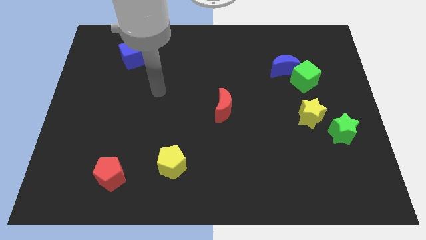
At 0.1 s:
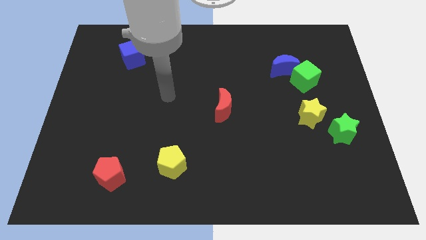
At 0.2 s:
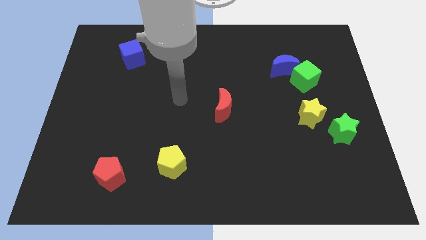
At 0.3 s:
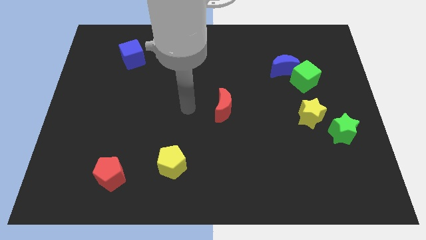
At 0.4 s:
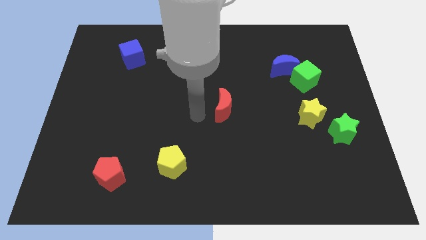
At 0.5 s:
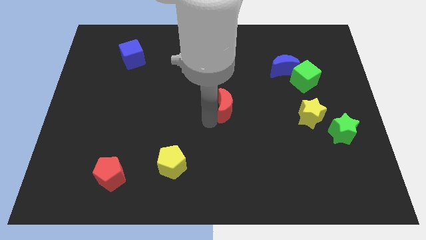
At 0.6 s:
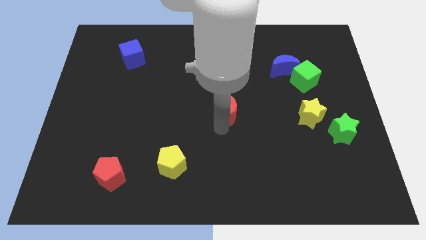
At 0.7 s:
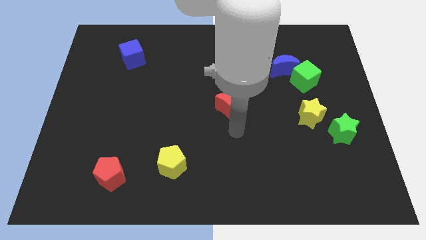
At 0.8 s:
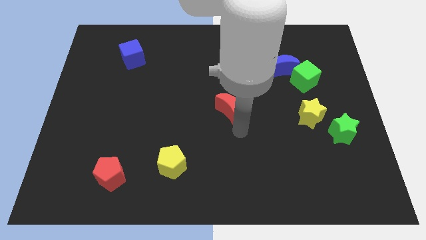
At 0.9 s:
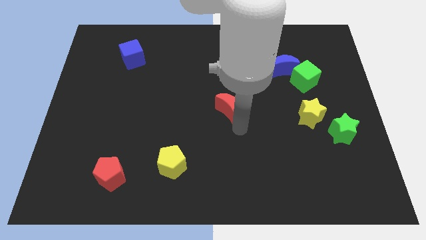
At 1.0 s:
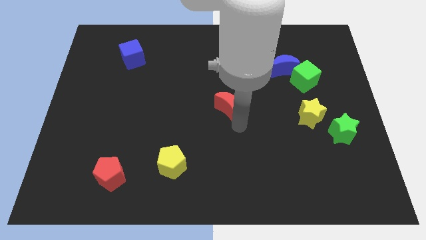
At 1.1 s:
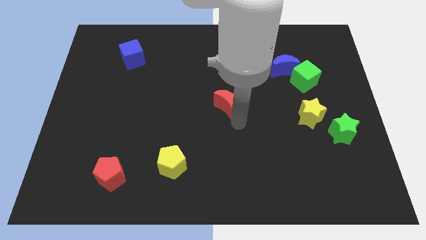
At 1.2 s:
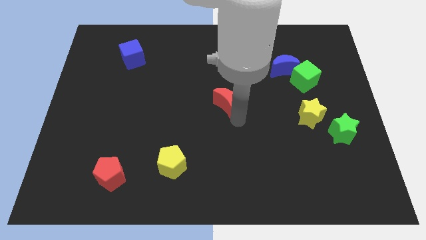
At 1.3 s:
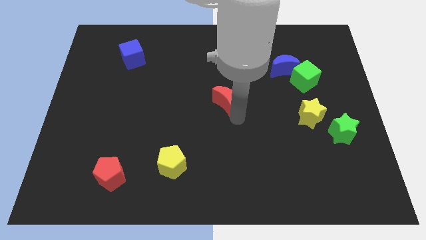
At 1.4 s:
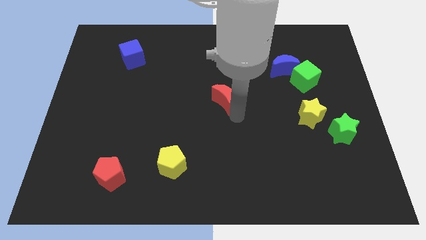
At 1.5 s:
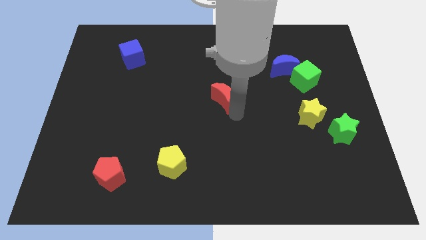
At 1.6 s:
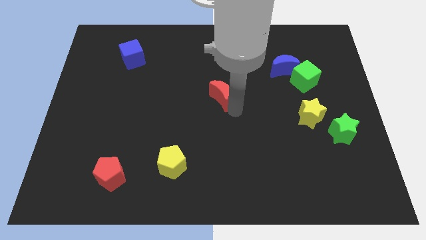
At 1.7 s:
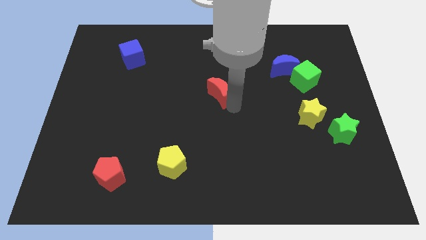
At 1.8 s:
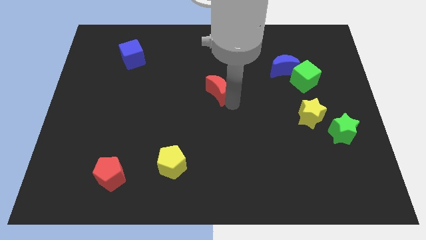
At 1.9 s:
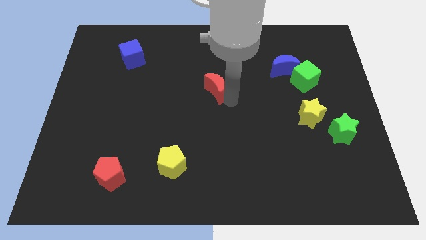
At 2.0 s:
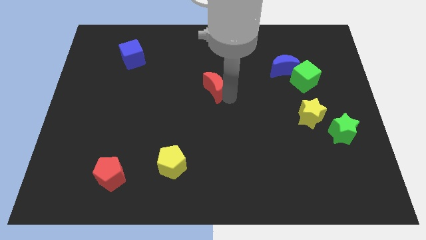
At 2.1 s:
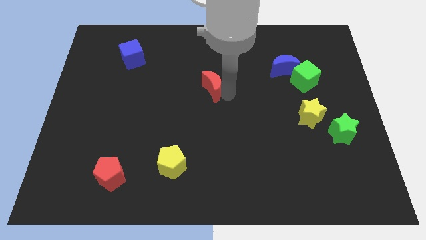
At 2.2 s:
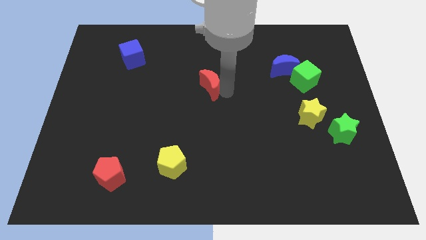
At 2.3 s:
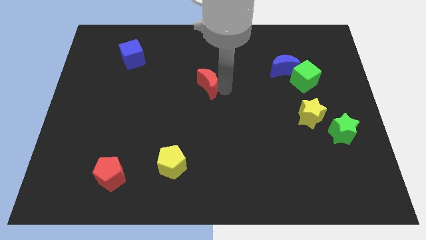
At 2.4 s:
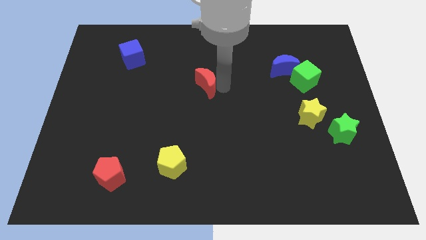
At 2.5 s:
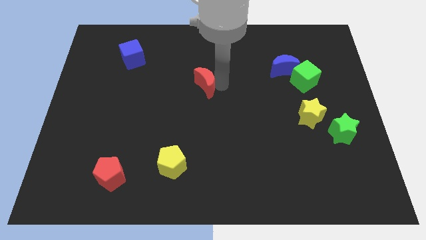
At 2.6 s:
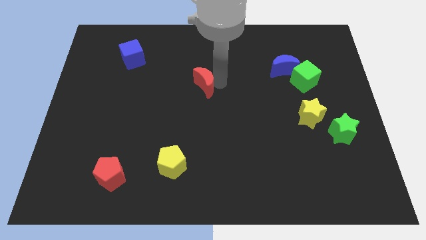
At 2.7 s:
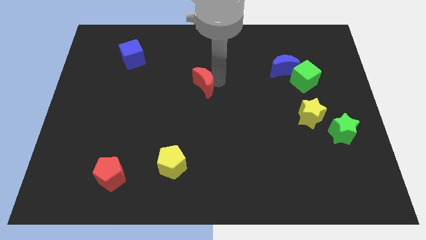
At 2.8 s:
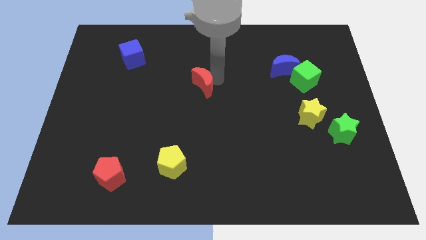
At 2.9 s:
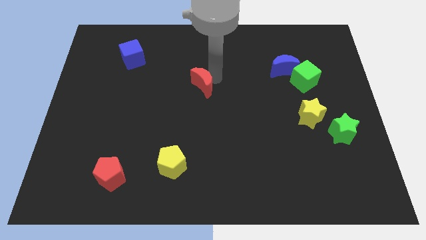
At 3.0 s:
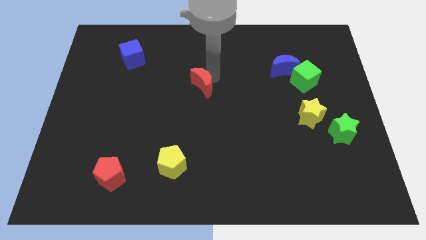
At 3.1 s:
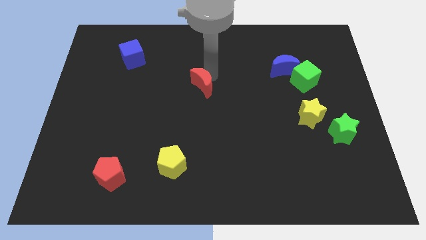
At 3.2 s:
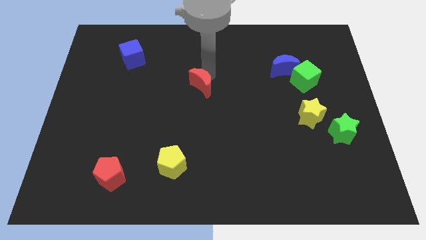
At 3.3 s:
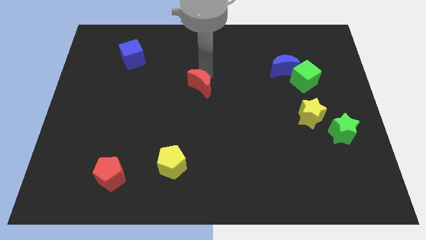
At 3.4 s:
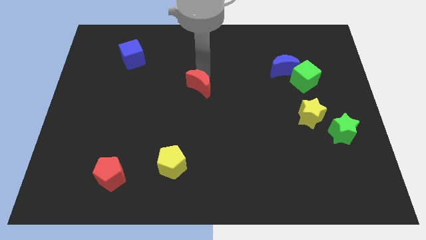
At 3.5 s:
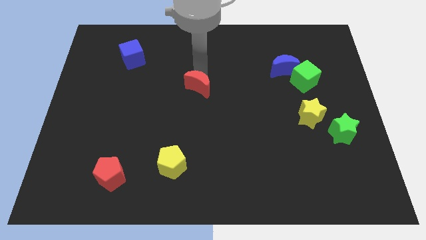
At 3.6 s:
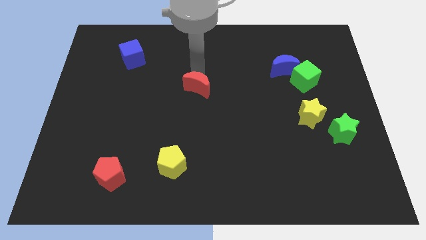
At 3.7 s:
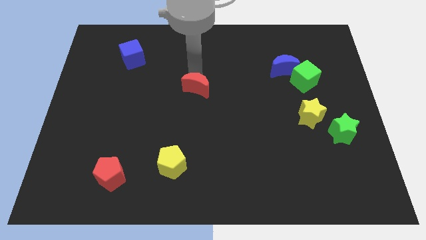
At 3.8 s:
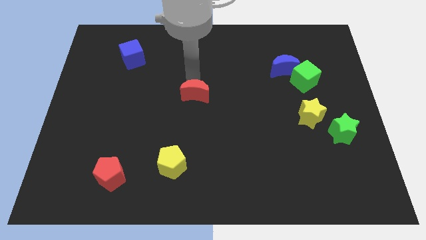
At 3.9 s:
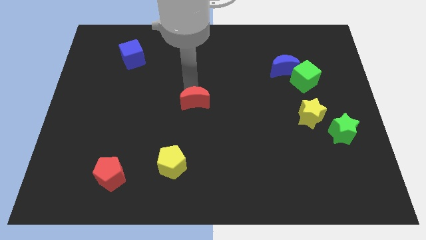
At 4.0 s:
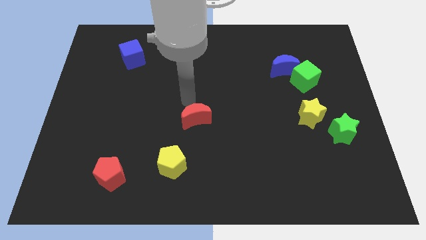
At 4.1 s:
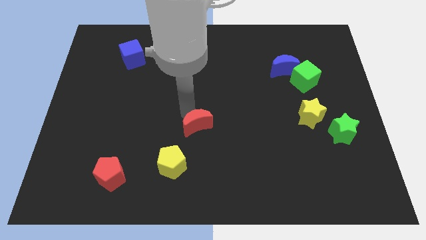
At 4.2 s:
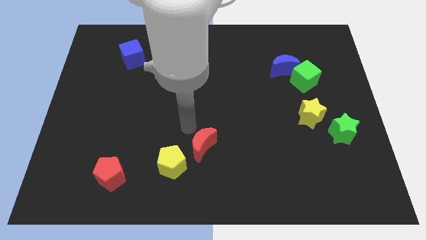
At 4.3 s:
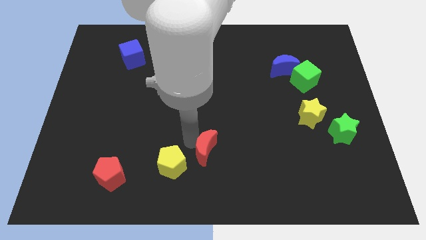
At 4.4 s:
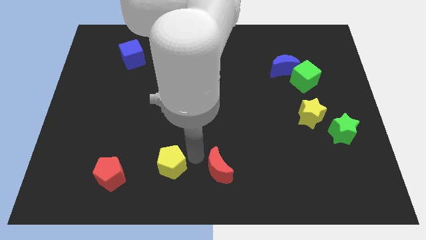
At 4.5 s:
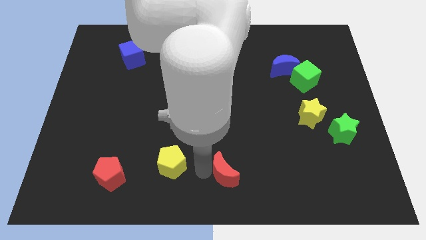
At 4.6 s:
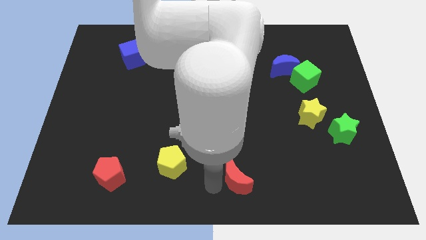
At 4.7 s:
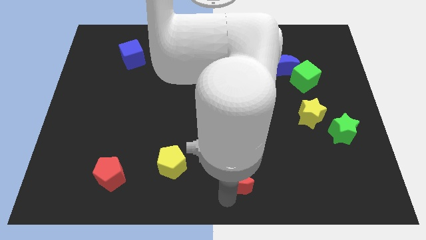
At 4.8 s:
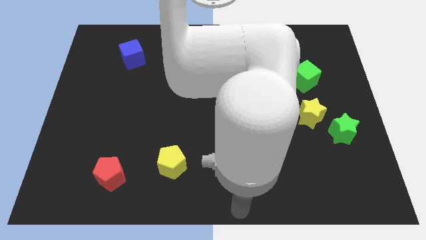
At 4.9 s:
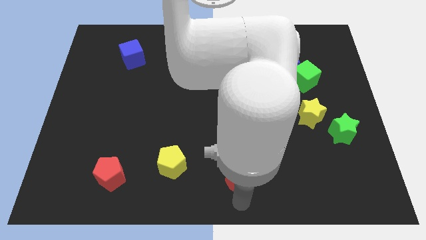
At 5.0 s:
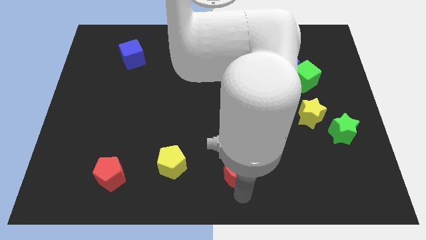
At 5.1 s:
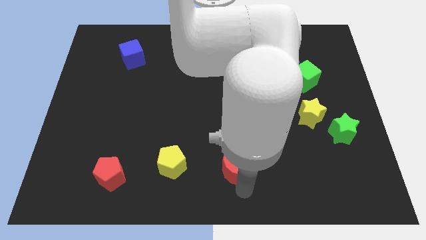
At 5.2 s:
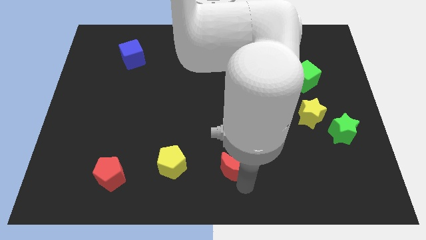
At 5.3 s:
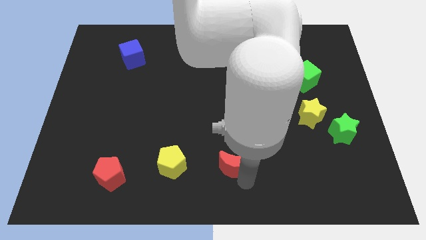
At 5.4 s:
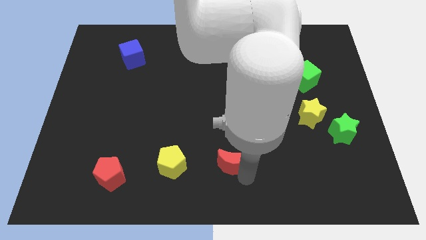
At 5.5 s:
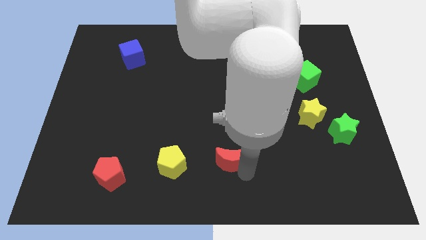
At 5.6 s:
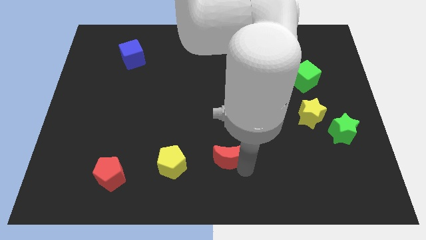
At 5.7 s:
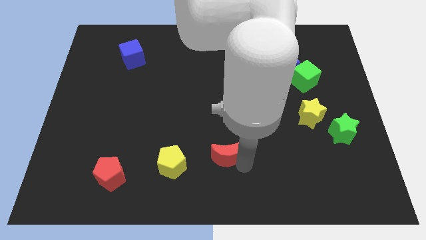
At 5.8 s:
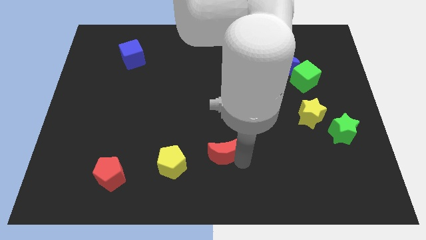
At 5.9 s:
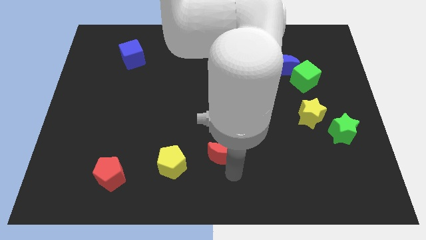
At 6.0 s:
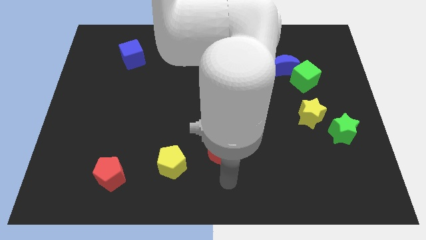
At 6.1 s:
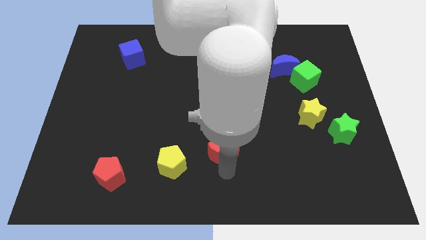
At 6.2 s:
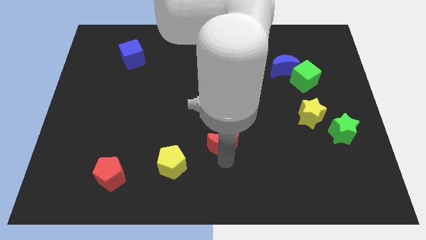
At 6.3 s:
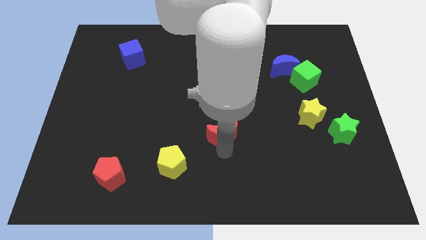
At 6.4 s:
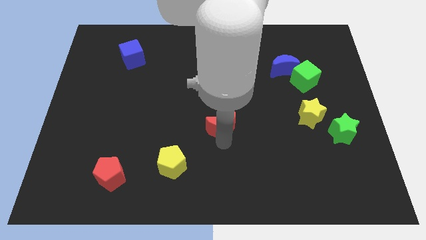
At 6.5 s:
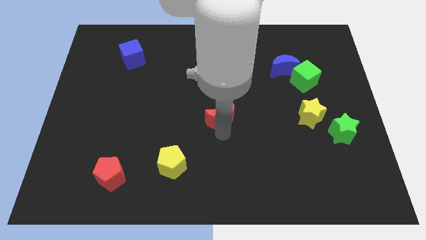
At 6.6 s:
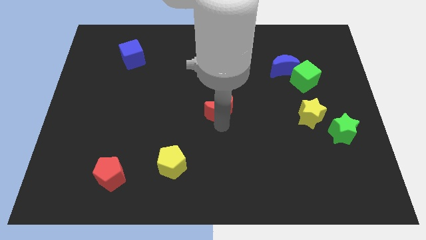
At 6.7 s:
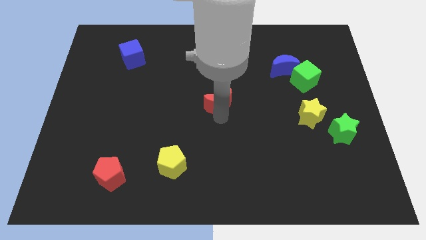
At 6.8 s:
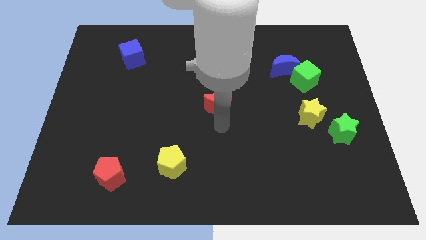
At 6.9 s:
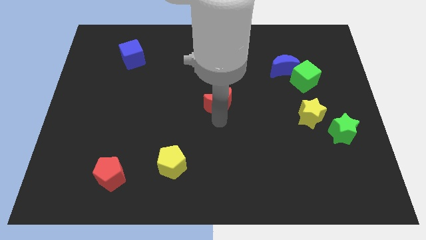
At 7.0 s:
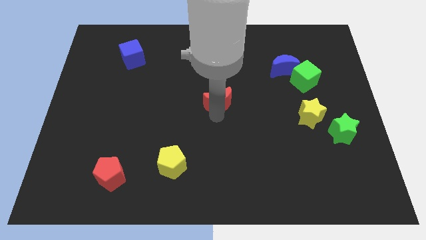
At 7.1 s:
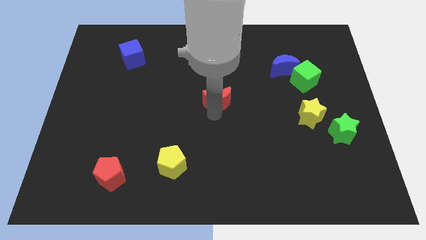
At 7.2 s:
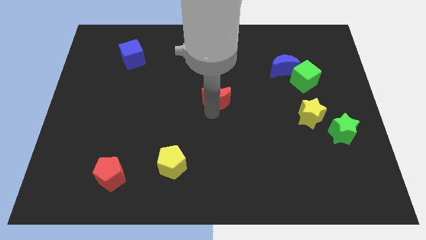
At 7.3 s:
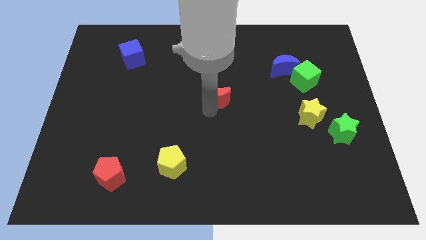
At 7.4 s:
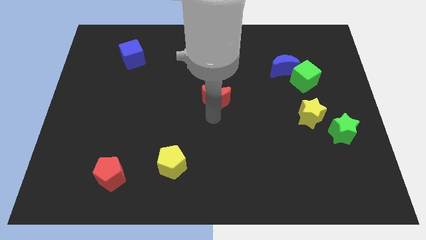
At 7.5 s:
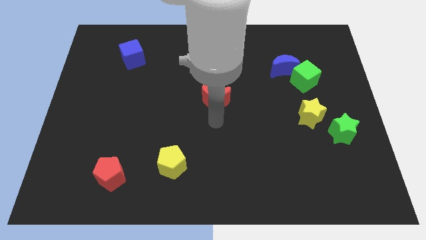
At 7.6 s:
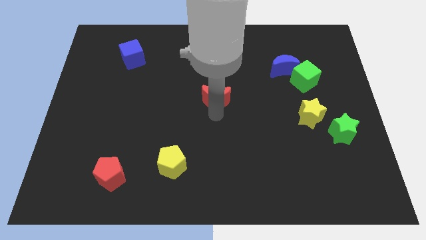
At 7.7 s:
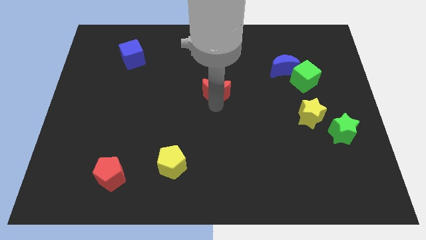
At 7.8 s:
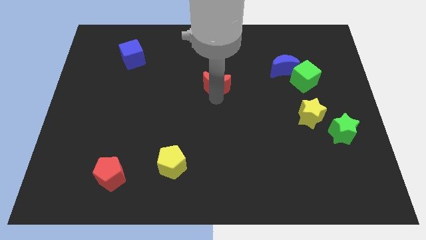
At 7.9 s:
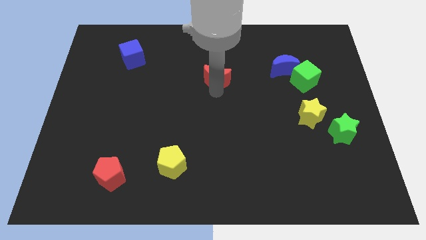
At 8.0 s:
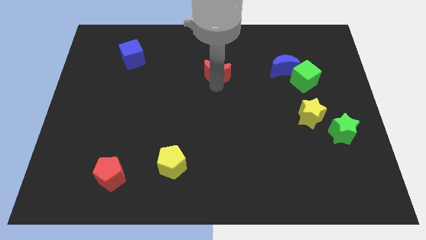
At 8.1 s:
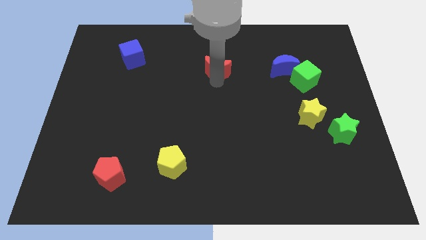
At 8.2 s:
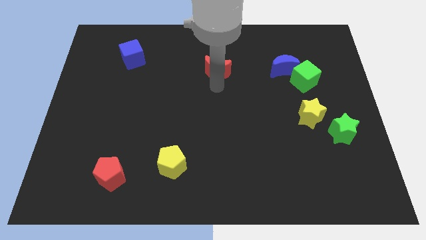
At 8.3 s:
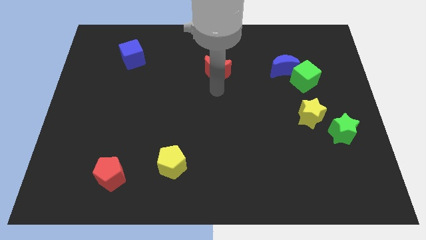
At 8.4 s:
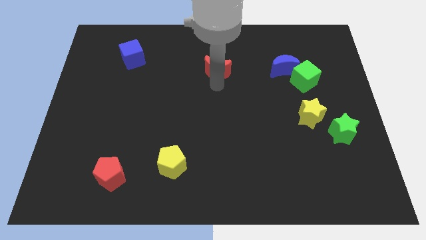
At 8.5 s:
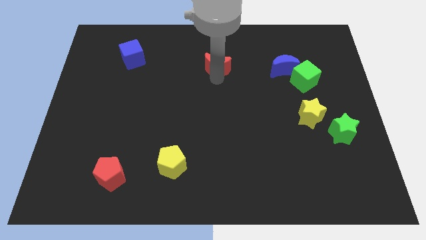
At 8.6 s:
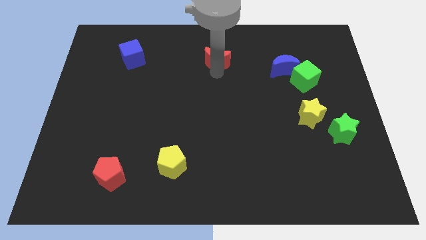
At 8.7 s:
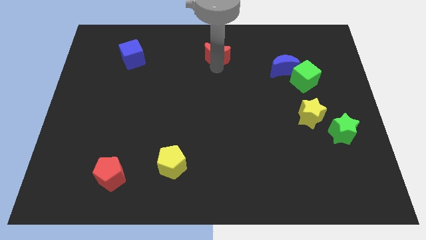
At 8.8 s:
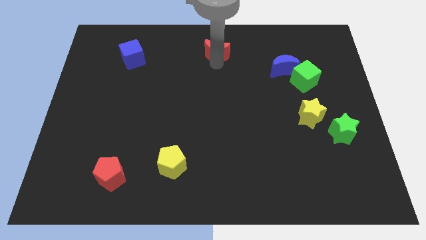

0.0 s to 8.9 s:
push the red moon to the towards your base
